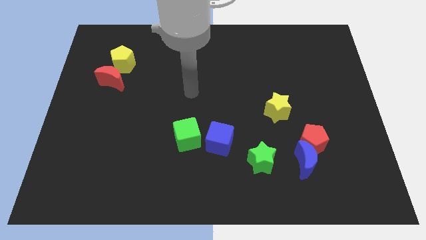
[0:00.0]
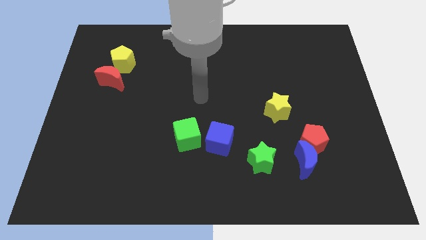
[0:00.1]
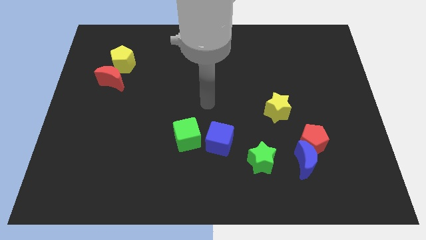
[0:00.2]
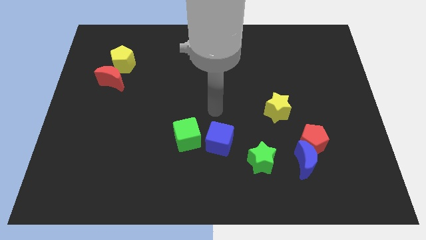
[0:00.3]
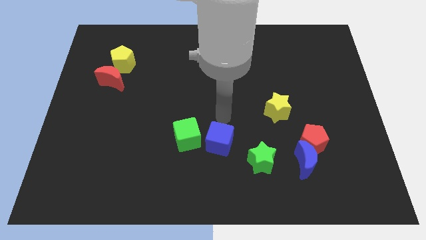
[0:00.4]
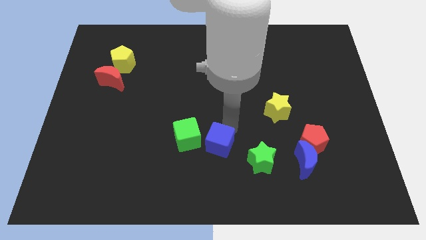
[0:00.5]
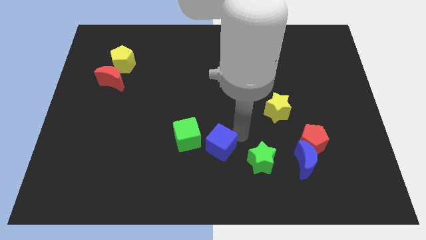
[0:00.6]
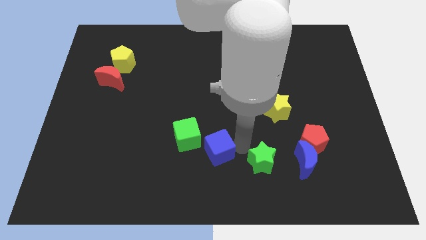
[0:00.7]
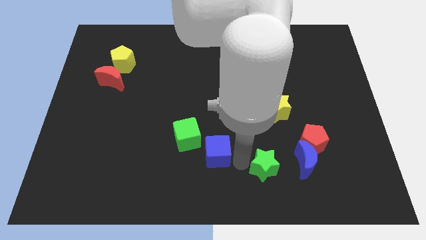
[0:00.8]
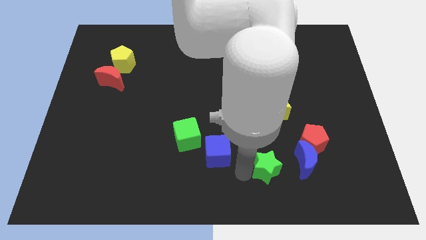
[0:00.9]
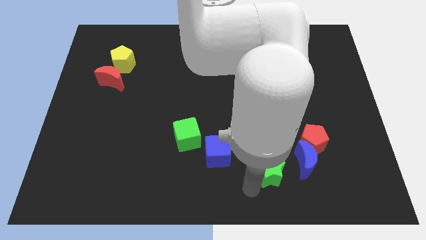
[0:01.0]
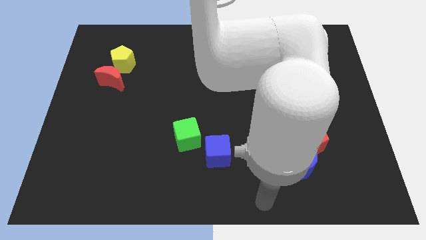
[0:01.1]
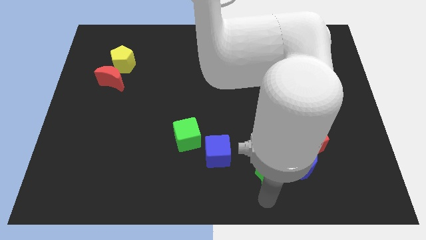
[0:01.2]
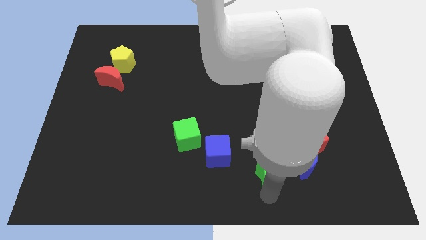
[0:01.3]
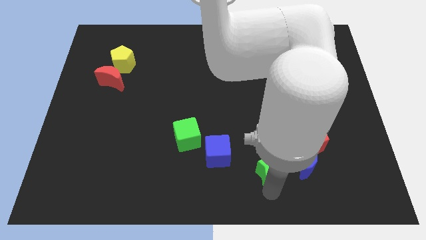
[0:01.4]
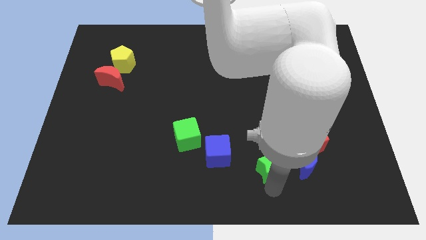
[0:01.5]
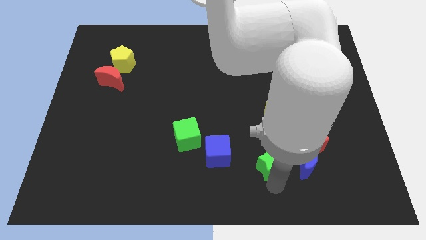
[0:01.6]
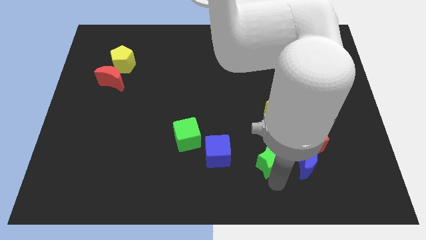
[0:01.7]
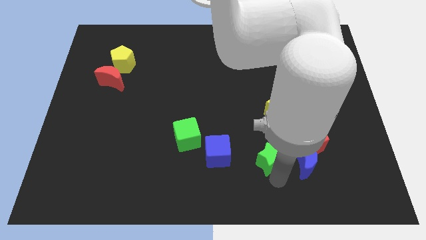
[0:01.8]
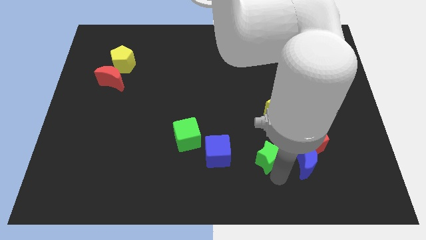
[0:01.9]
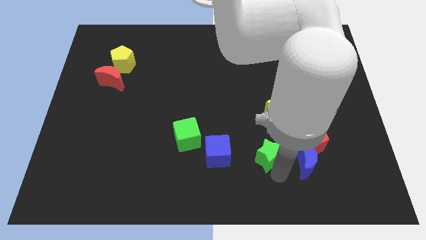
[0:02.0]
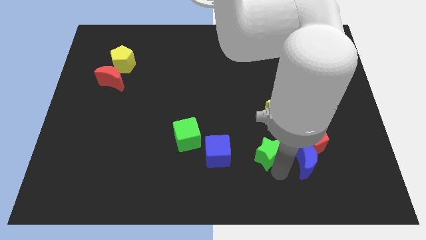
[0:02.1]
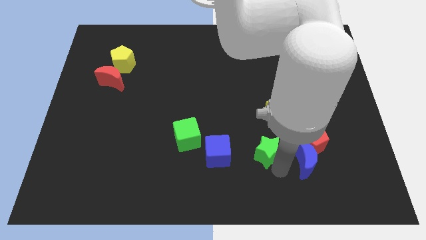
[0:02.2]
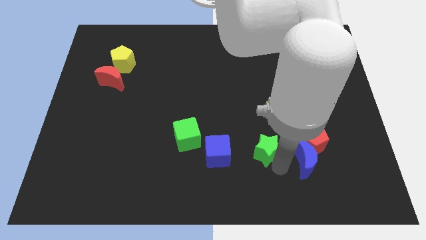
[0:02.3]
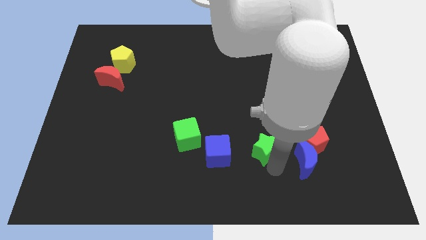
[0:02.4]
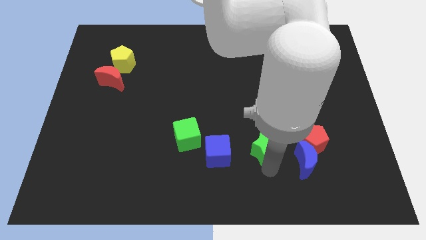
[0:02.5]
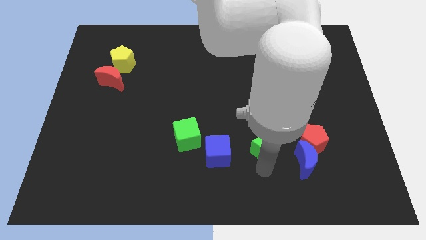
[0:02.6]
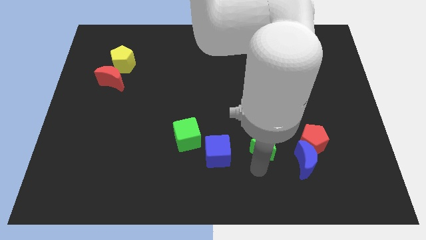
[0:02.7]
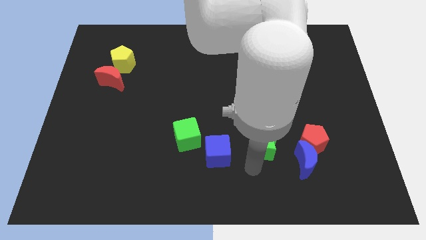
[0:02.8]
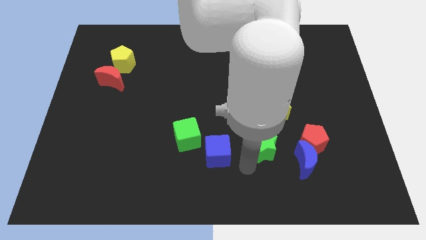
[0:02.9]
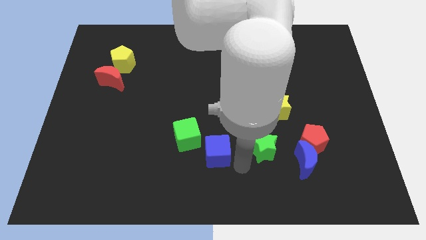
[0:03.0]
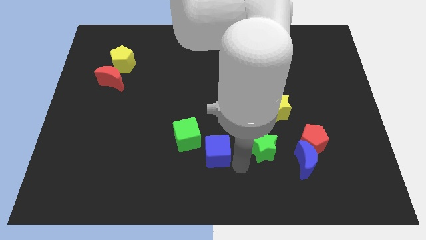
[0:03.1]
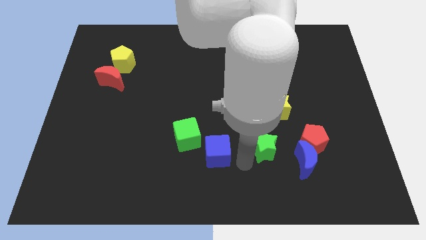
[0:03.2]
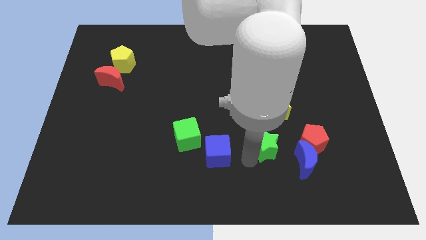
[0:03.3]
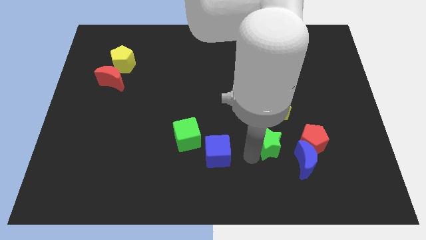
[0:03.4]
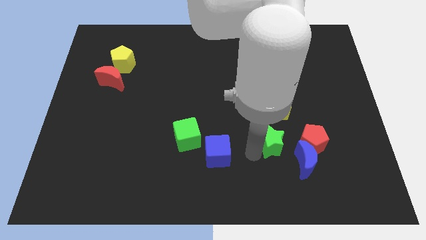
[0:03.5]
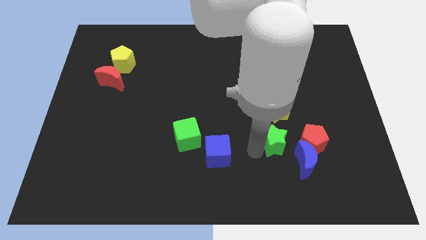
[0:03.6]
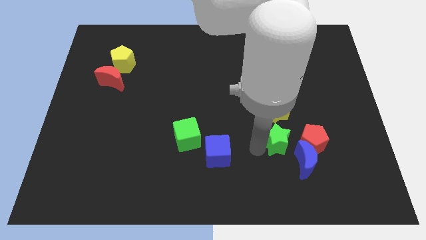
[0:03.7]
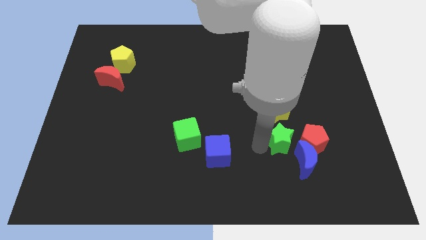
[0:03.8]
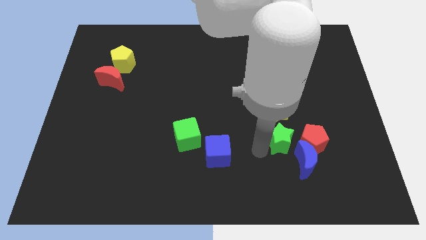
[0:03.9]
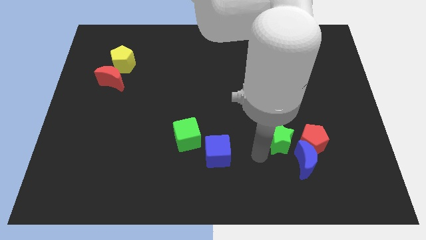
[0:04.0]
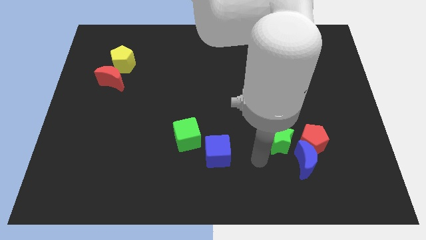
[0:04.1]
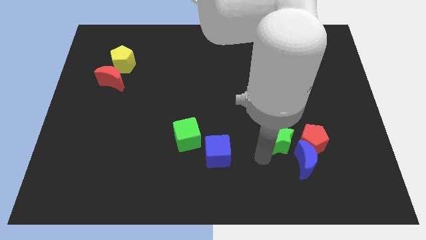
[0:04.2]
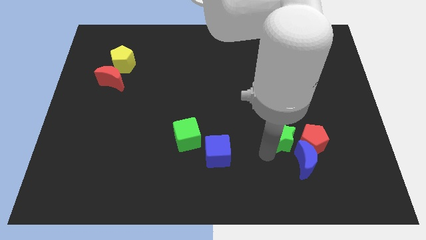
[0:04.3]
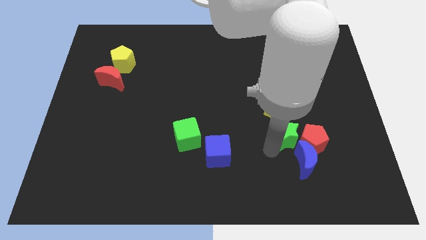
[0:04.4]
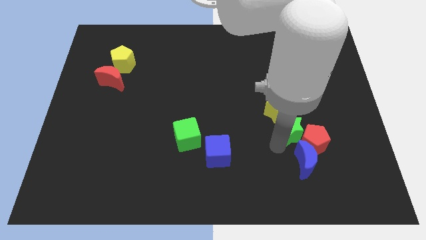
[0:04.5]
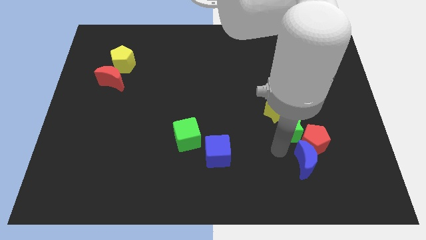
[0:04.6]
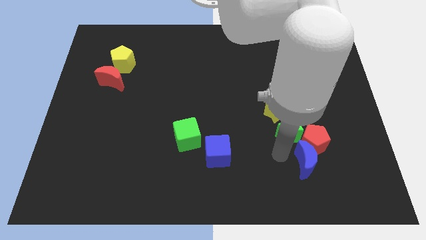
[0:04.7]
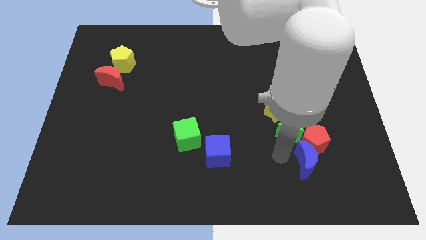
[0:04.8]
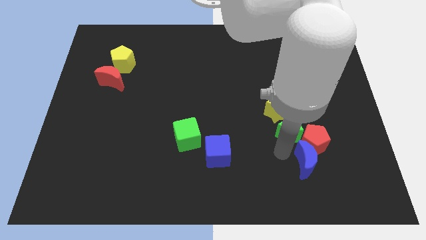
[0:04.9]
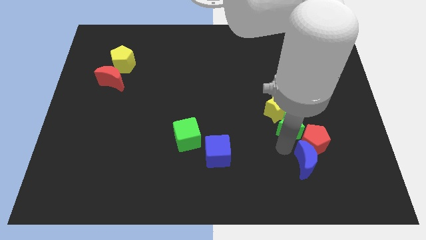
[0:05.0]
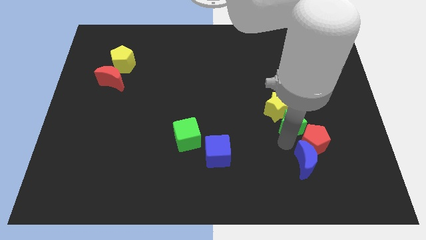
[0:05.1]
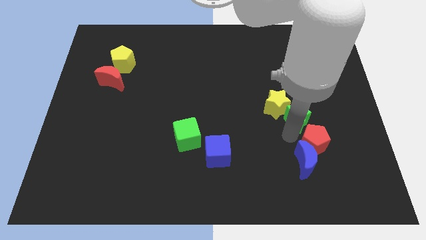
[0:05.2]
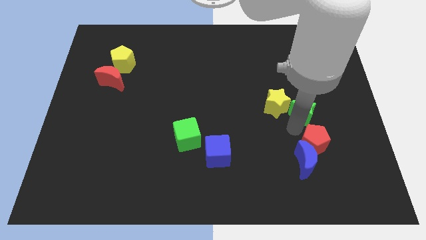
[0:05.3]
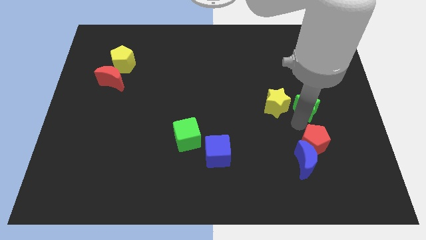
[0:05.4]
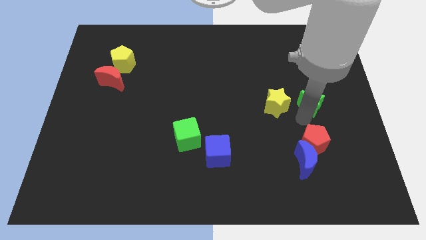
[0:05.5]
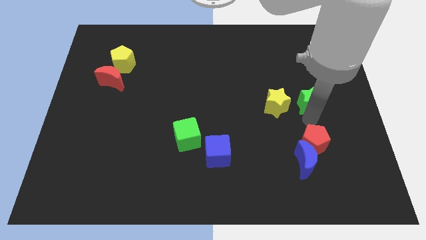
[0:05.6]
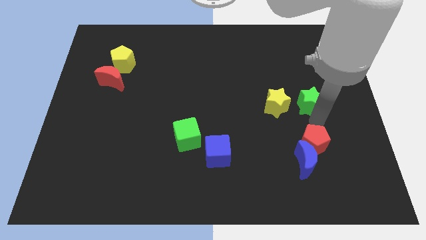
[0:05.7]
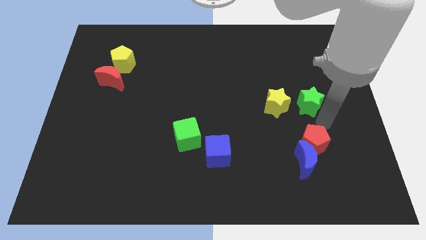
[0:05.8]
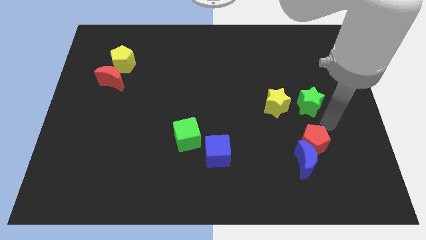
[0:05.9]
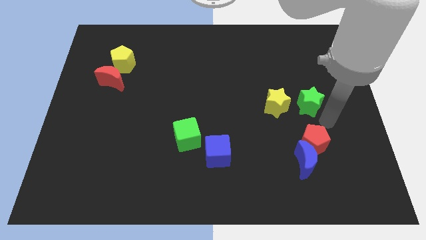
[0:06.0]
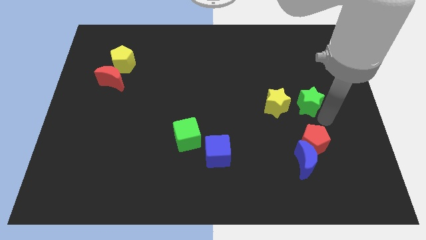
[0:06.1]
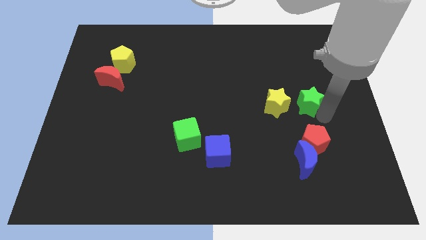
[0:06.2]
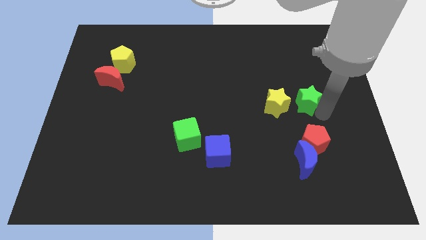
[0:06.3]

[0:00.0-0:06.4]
put the green star to the top right of the yellow star

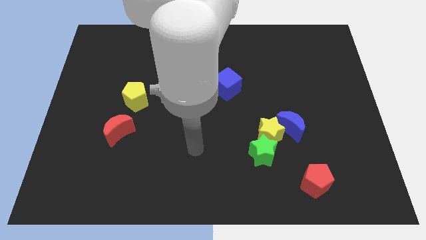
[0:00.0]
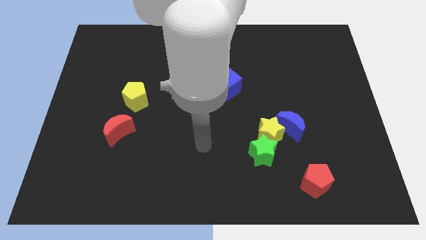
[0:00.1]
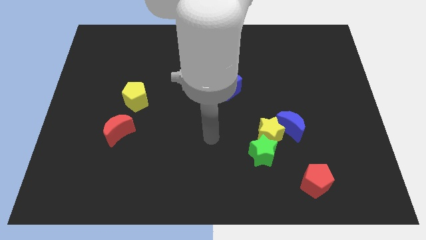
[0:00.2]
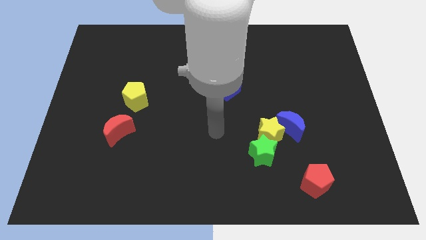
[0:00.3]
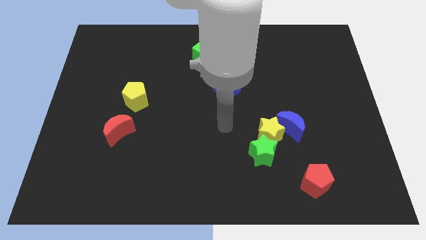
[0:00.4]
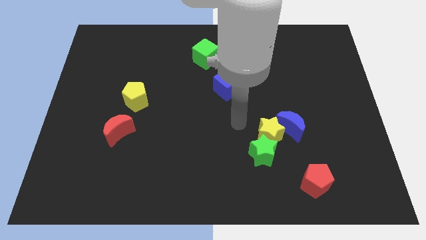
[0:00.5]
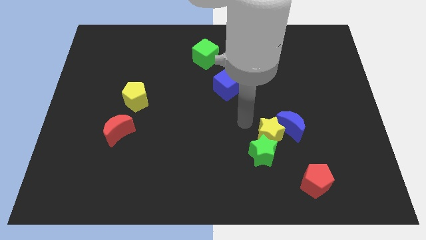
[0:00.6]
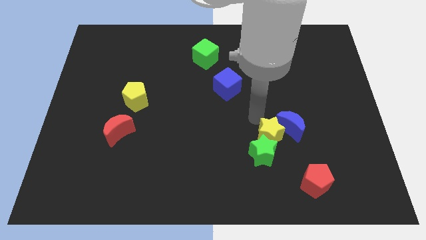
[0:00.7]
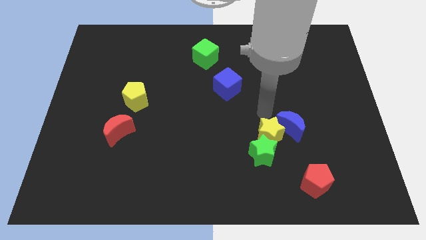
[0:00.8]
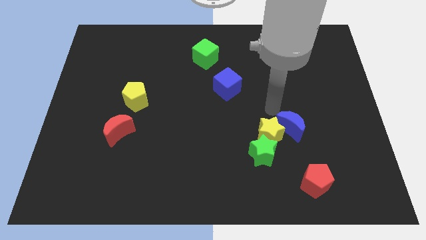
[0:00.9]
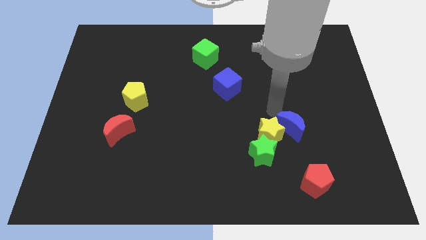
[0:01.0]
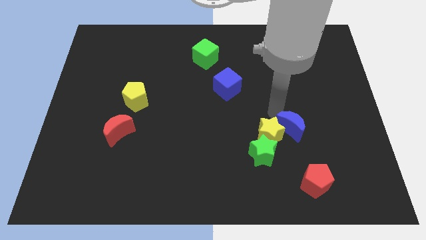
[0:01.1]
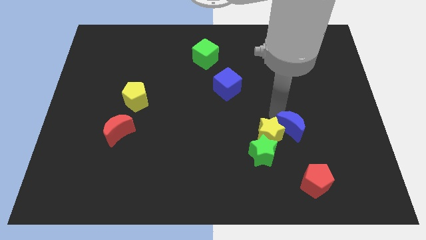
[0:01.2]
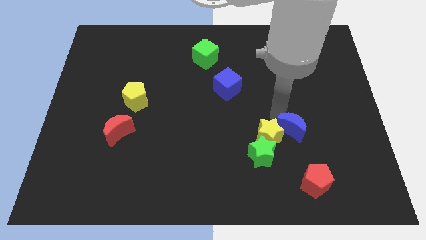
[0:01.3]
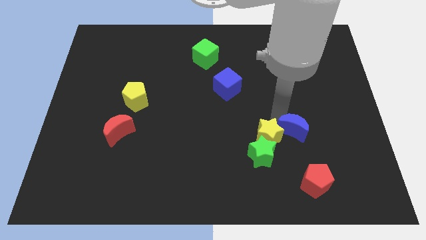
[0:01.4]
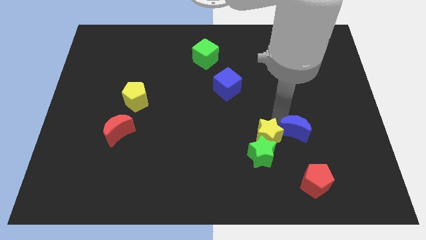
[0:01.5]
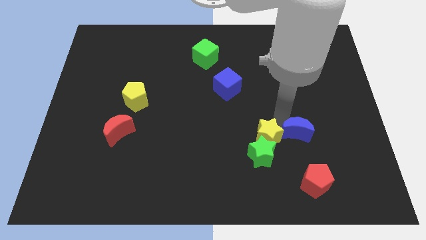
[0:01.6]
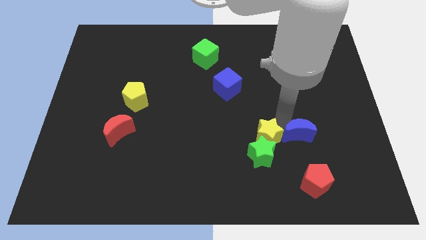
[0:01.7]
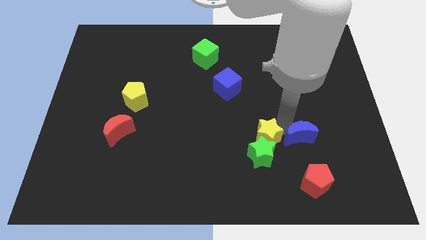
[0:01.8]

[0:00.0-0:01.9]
put the blue moon right of the green star
